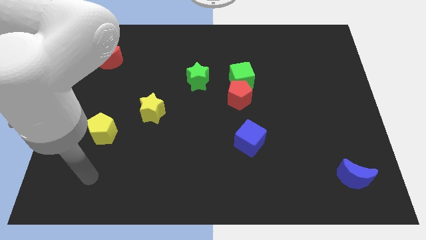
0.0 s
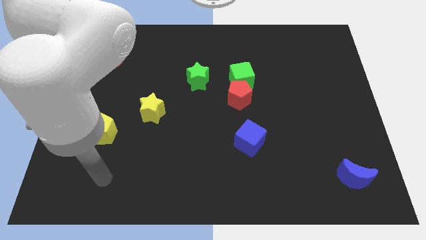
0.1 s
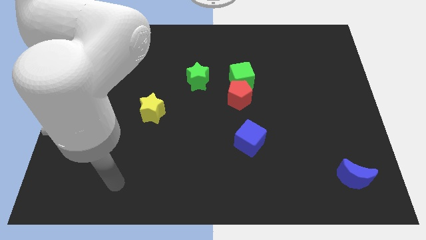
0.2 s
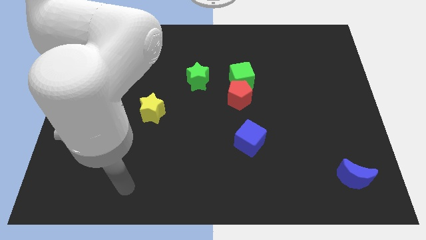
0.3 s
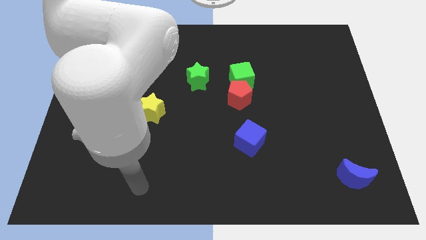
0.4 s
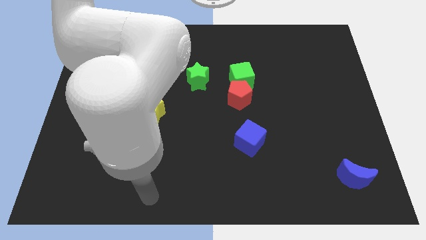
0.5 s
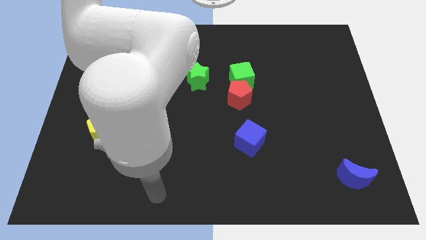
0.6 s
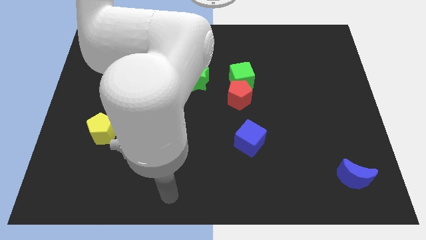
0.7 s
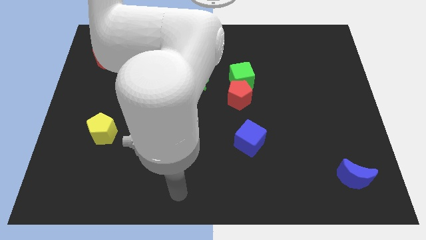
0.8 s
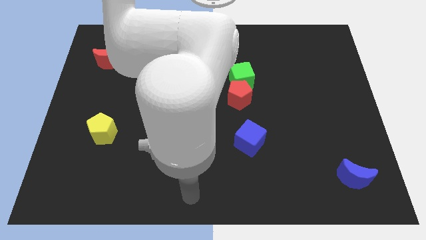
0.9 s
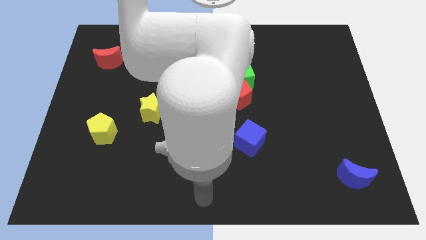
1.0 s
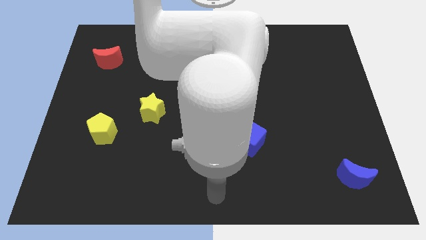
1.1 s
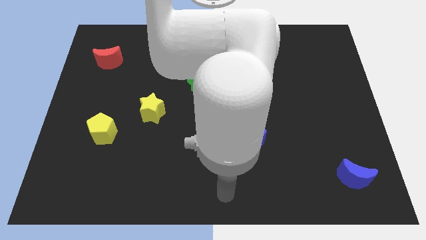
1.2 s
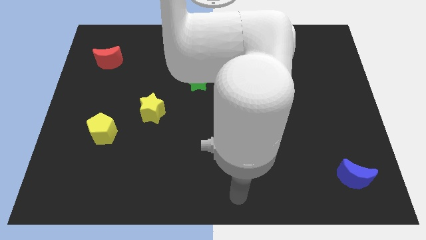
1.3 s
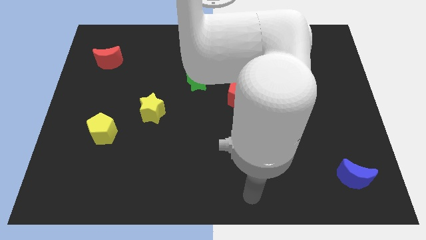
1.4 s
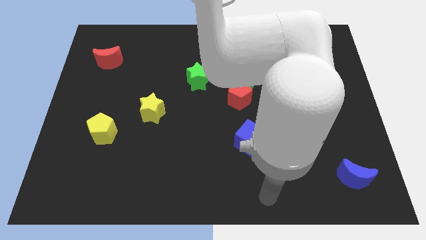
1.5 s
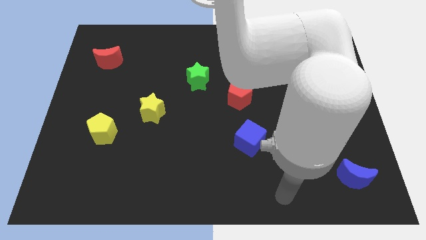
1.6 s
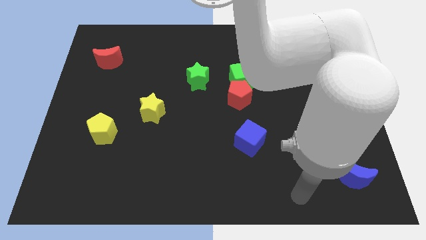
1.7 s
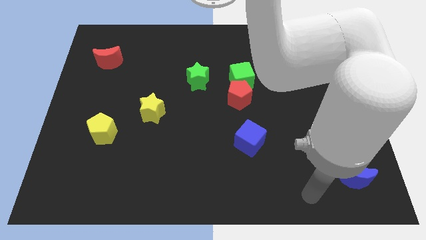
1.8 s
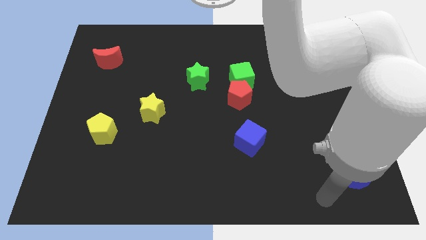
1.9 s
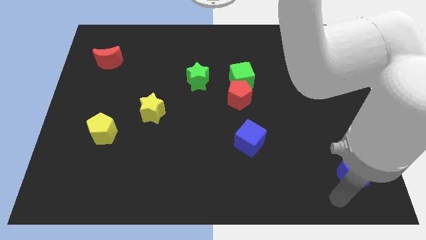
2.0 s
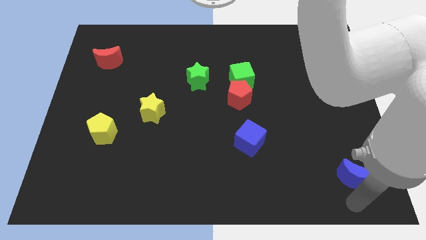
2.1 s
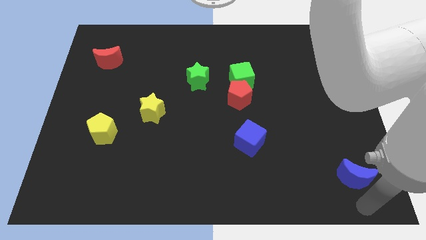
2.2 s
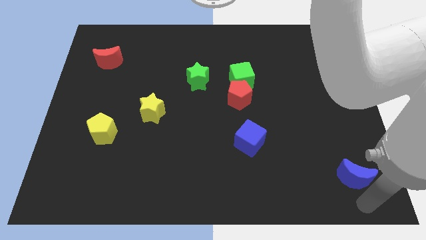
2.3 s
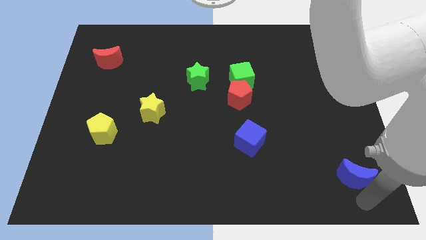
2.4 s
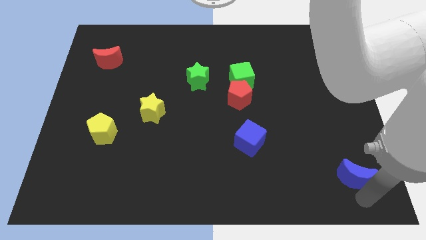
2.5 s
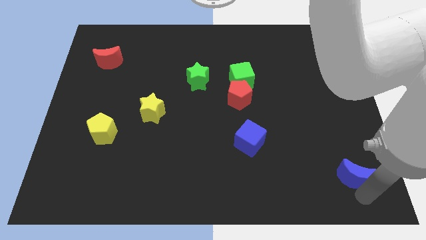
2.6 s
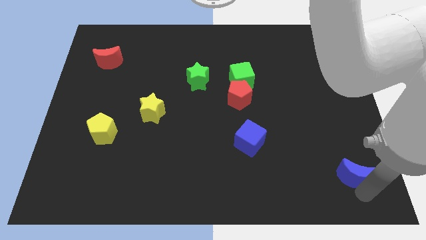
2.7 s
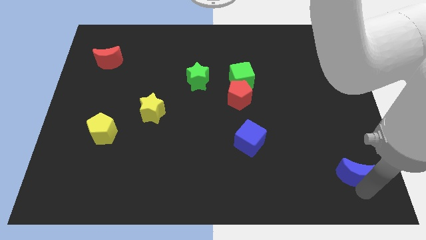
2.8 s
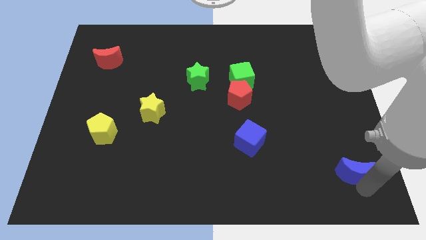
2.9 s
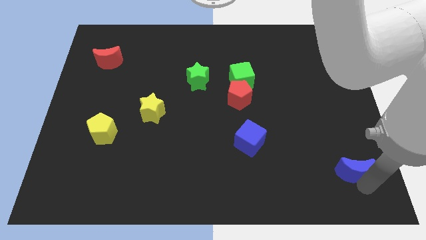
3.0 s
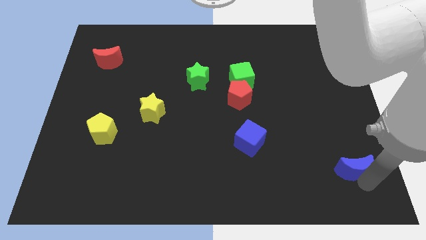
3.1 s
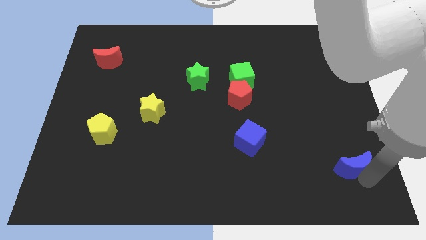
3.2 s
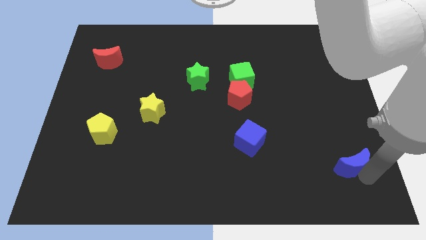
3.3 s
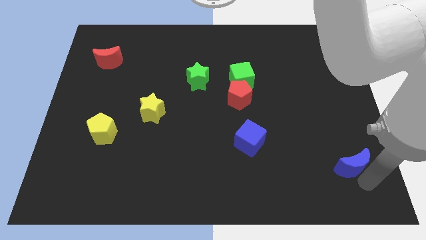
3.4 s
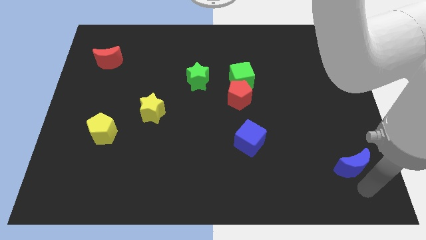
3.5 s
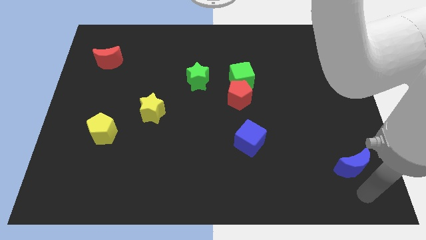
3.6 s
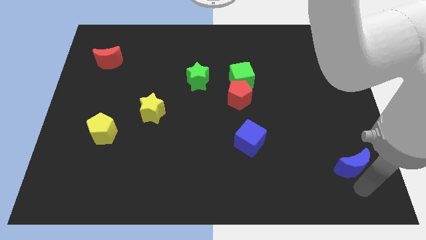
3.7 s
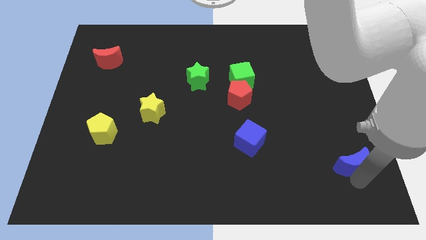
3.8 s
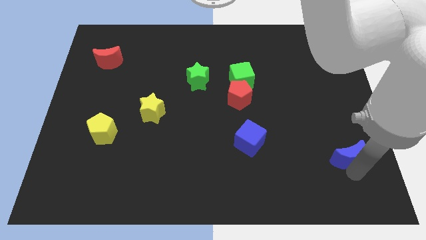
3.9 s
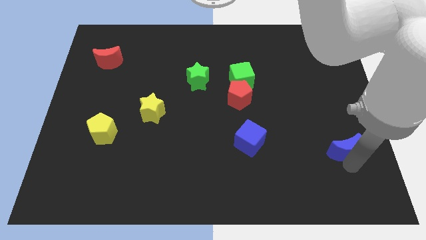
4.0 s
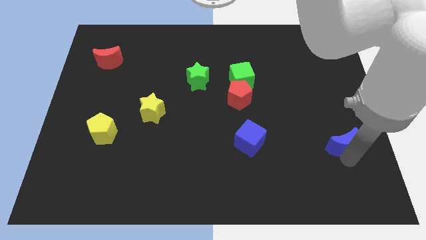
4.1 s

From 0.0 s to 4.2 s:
move the blue moon upwards a little bit

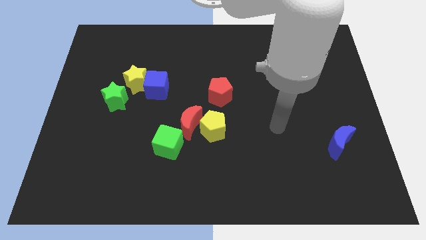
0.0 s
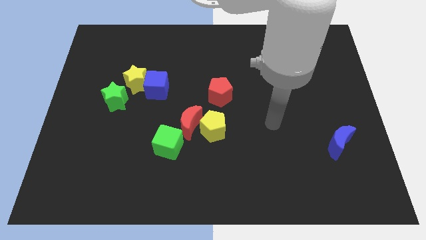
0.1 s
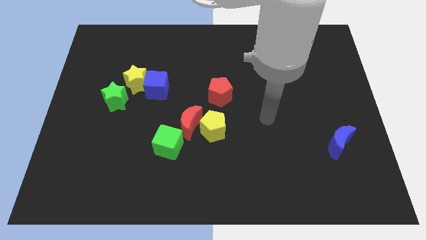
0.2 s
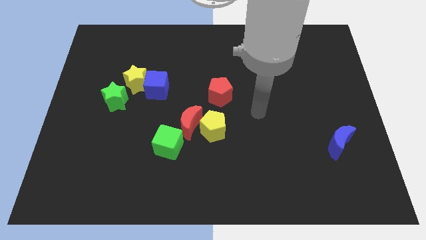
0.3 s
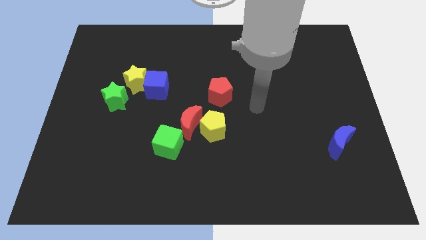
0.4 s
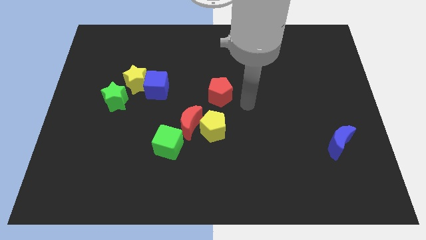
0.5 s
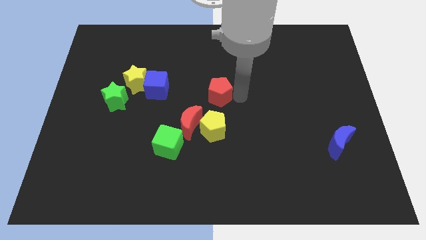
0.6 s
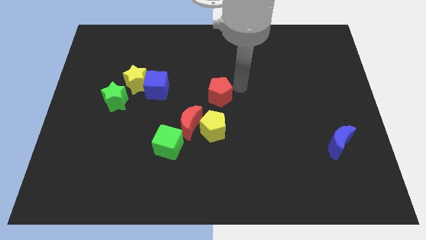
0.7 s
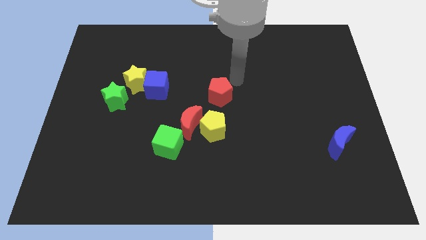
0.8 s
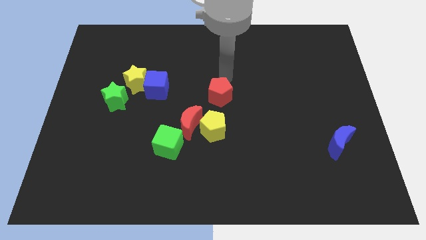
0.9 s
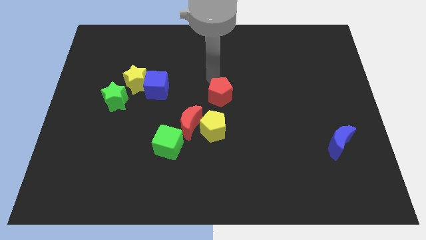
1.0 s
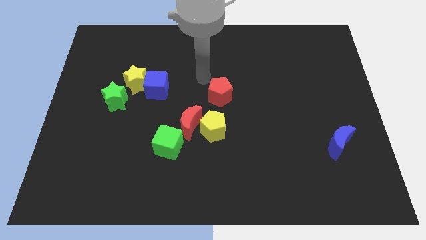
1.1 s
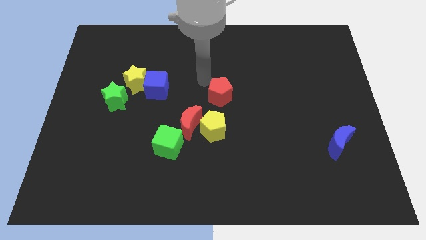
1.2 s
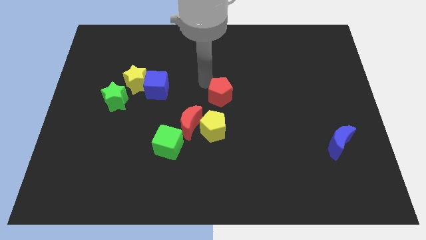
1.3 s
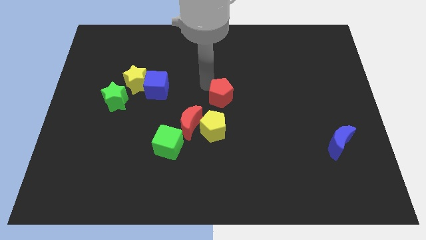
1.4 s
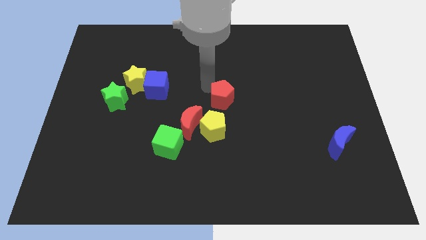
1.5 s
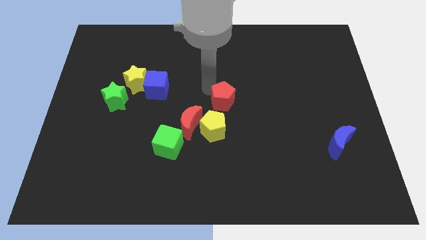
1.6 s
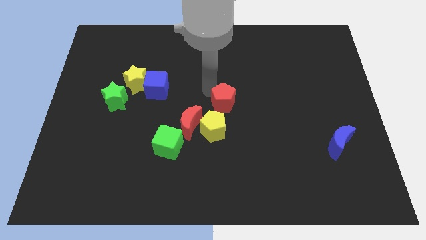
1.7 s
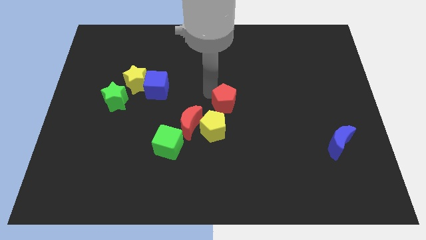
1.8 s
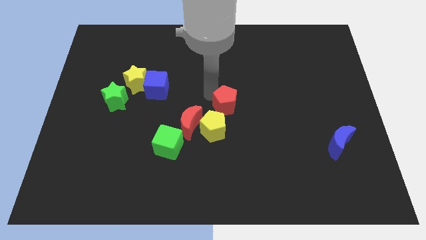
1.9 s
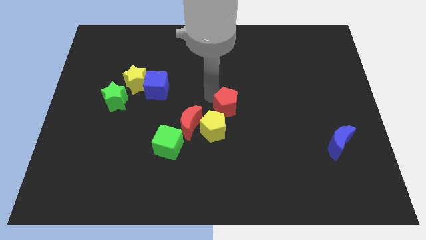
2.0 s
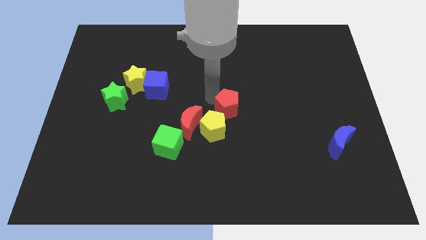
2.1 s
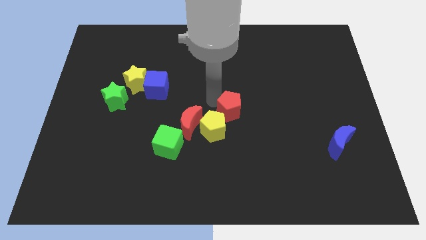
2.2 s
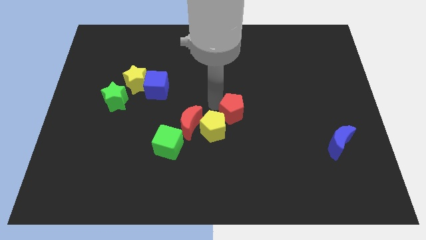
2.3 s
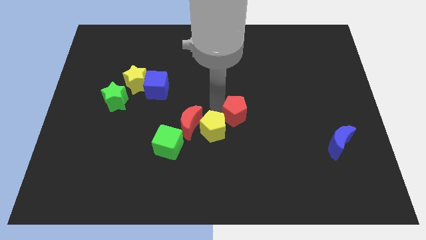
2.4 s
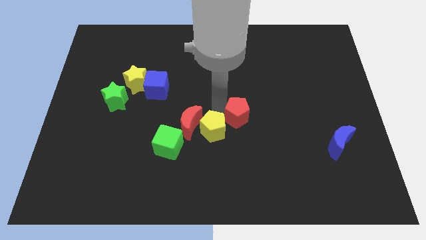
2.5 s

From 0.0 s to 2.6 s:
move the red pentagon a bit diagonally downwards and to the right

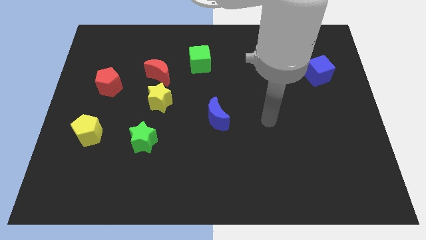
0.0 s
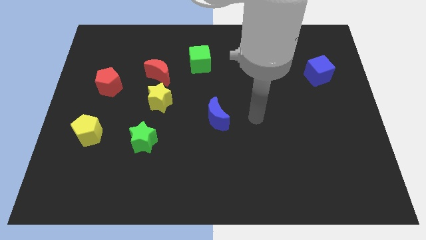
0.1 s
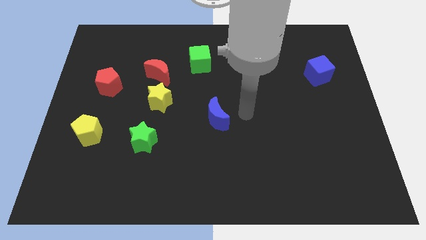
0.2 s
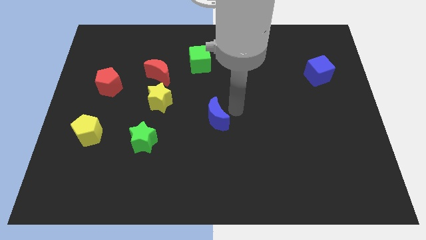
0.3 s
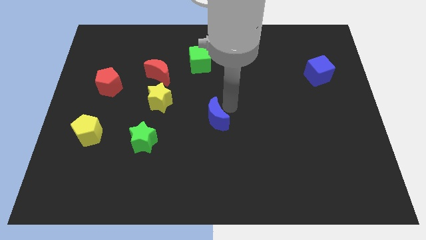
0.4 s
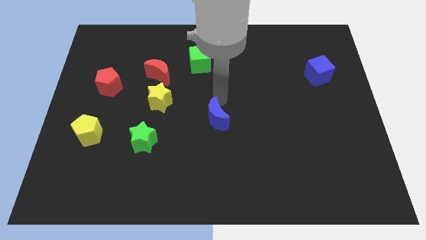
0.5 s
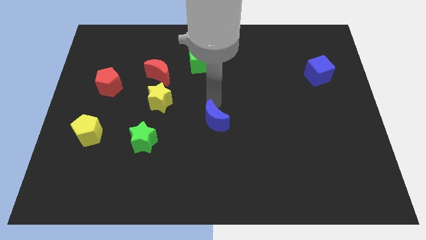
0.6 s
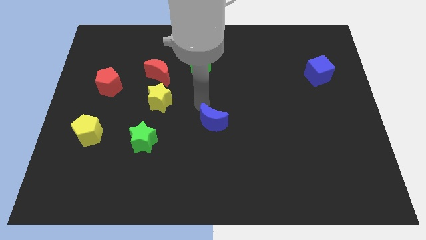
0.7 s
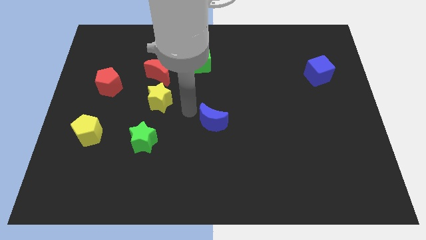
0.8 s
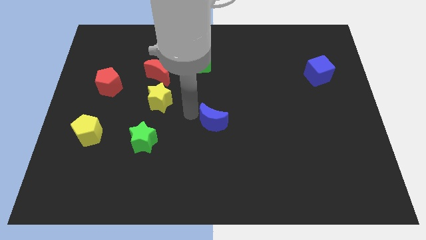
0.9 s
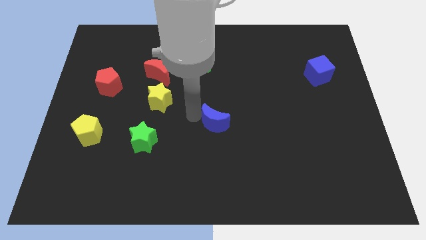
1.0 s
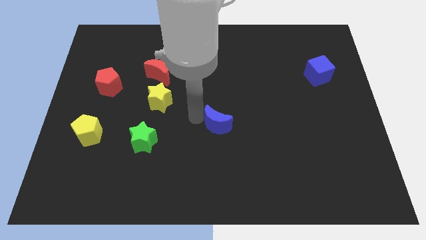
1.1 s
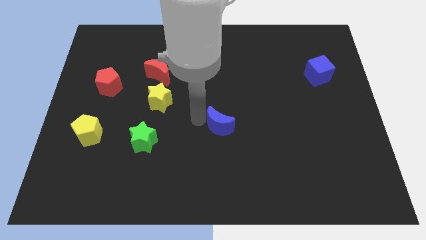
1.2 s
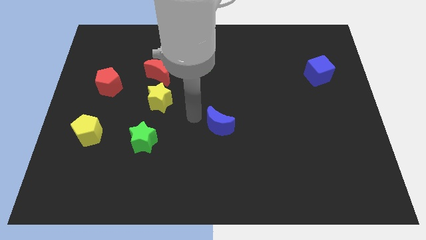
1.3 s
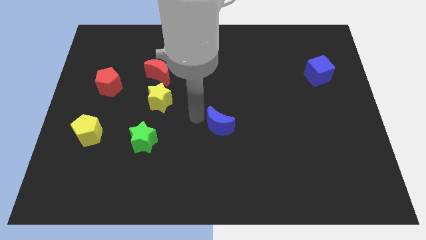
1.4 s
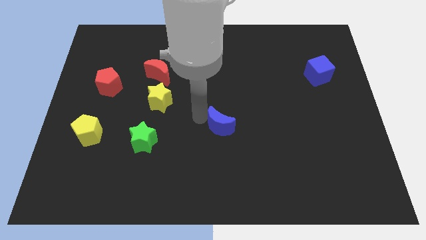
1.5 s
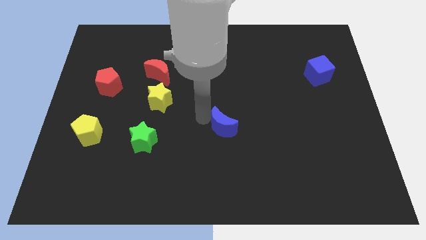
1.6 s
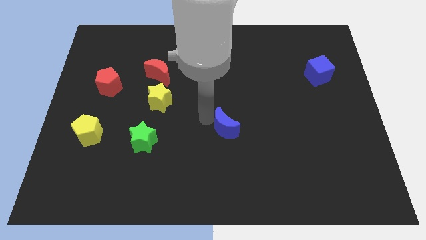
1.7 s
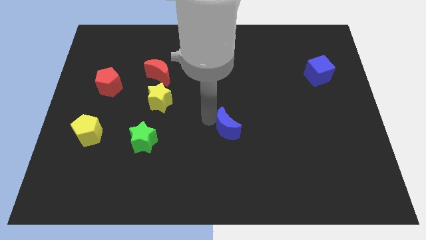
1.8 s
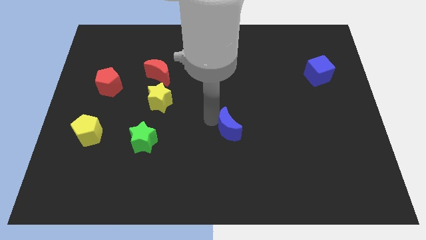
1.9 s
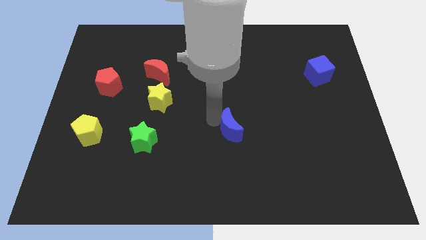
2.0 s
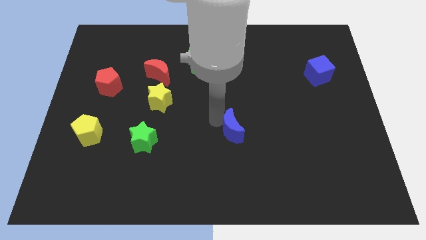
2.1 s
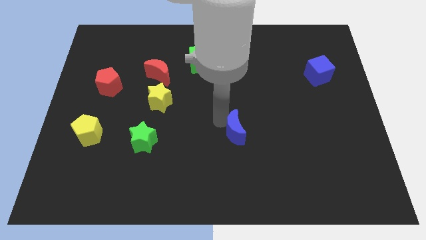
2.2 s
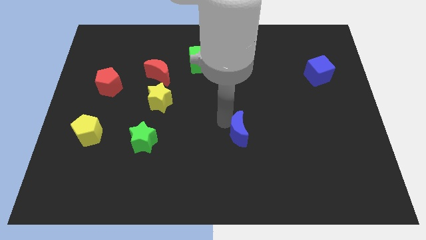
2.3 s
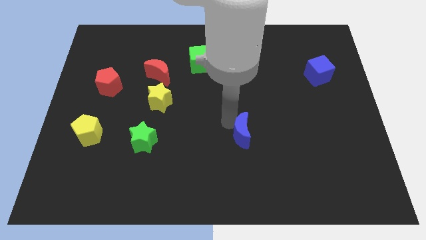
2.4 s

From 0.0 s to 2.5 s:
push the blue moon a little bit down and then to the right
